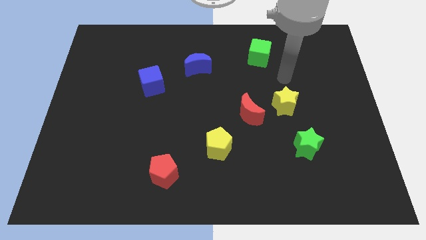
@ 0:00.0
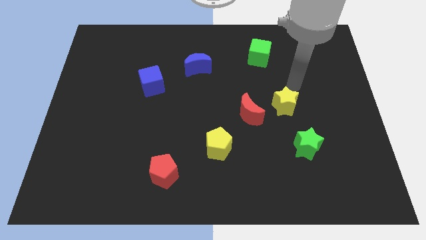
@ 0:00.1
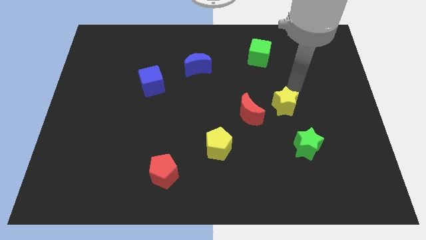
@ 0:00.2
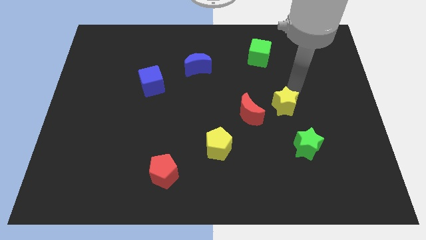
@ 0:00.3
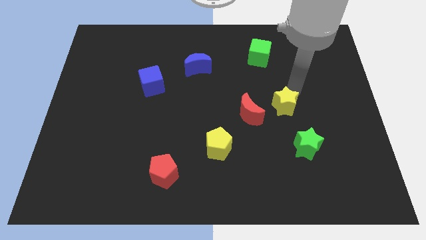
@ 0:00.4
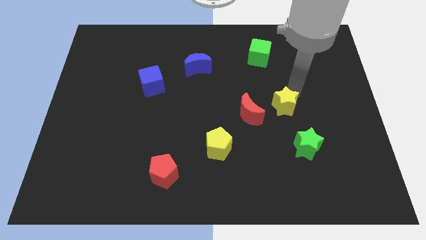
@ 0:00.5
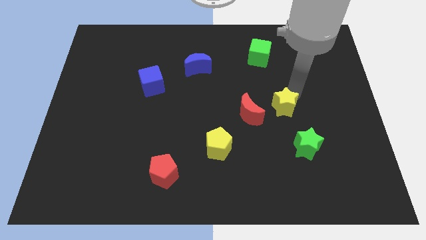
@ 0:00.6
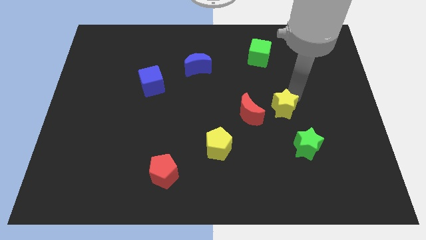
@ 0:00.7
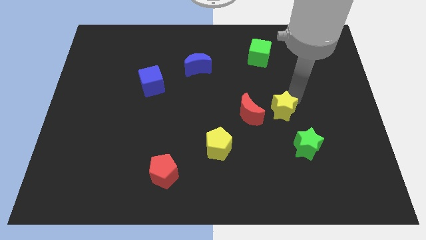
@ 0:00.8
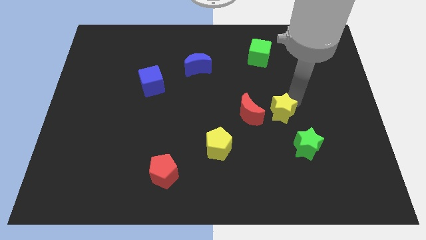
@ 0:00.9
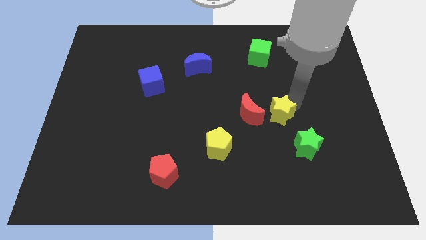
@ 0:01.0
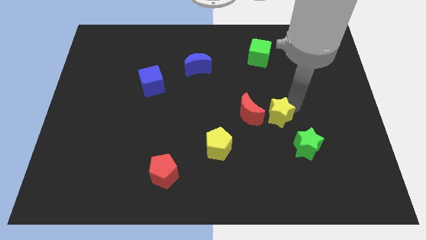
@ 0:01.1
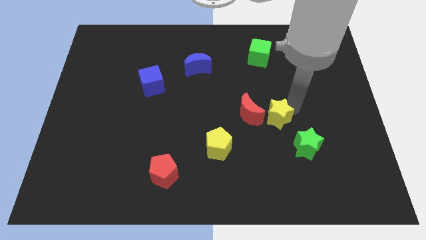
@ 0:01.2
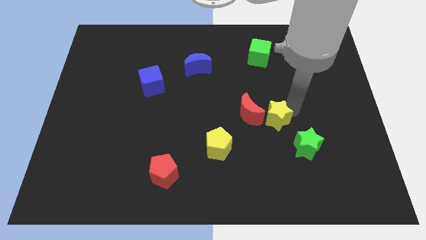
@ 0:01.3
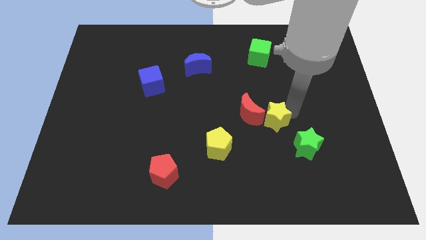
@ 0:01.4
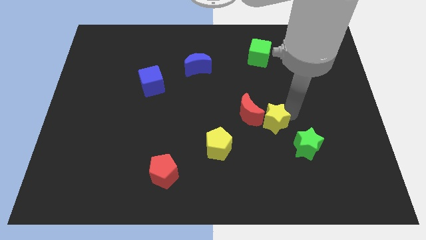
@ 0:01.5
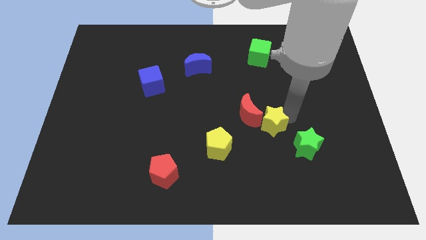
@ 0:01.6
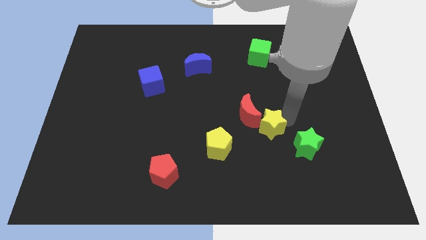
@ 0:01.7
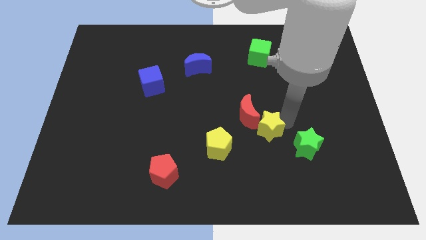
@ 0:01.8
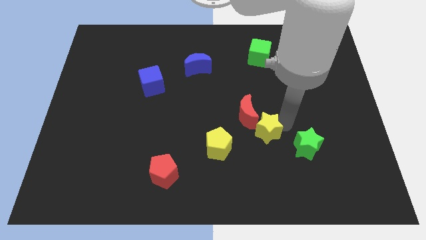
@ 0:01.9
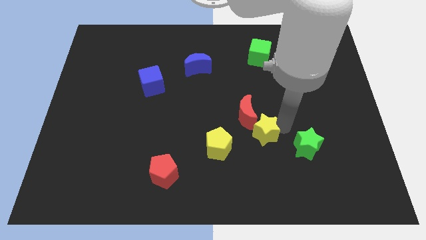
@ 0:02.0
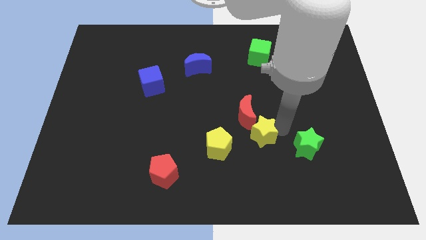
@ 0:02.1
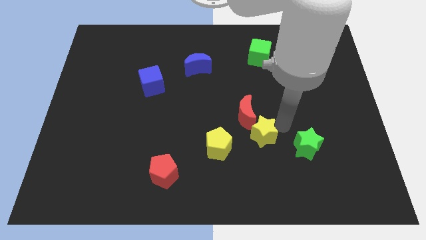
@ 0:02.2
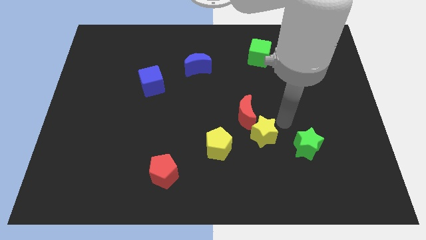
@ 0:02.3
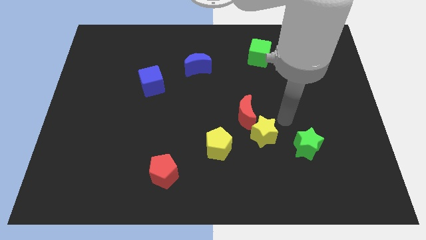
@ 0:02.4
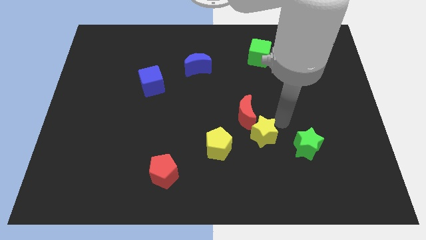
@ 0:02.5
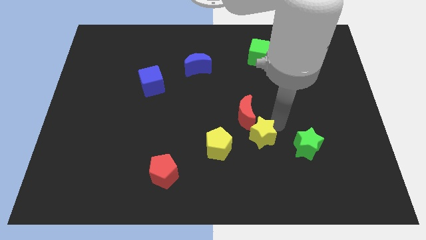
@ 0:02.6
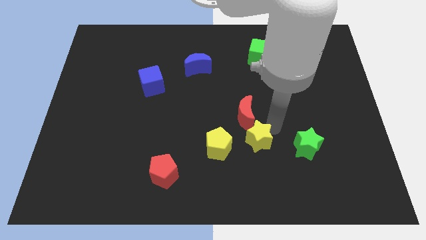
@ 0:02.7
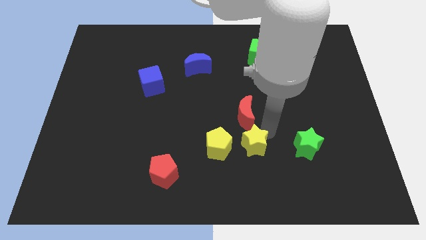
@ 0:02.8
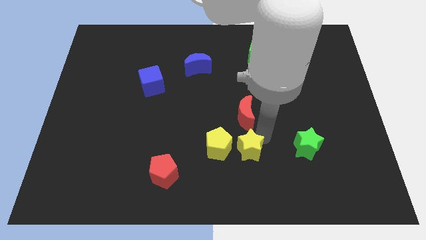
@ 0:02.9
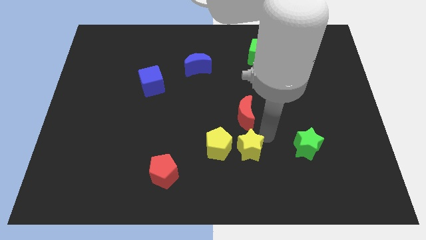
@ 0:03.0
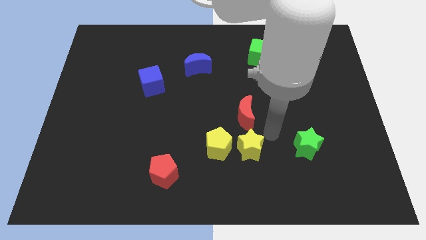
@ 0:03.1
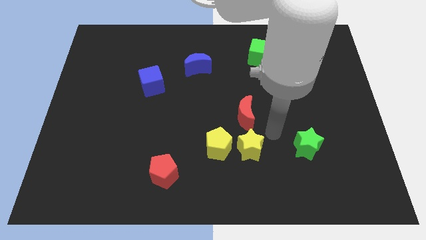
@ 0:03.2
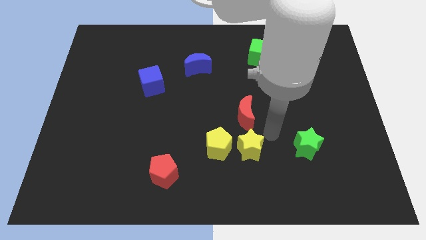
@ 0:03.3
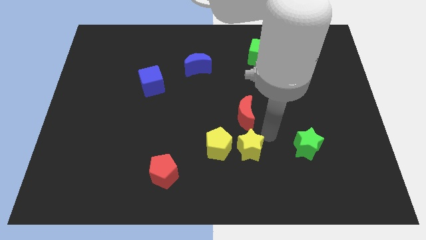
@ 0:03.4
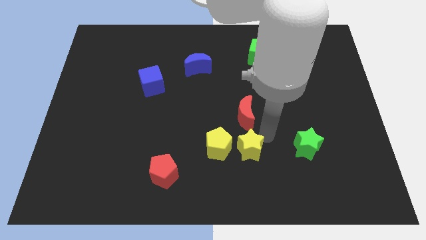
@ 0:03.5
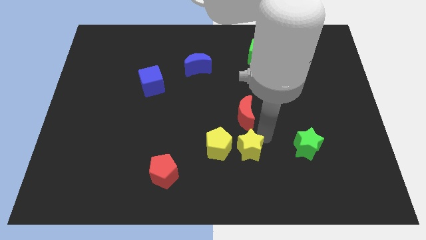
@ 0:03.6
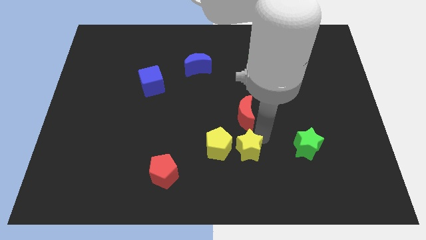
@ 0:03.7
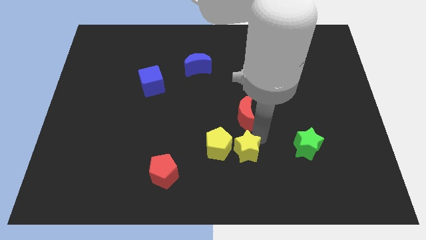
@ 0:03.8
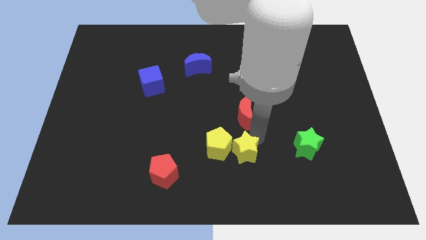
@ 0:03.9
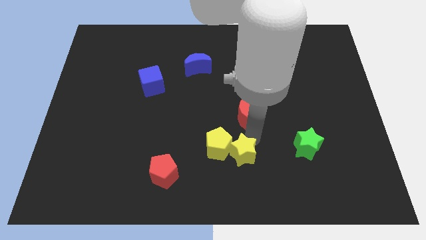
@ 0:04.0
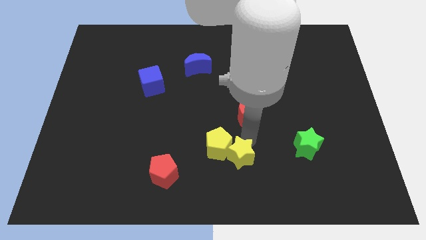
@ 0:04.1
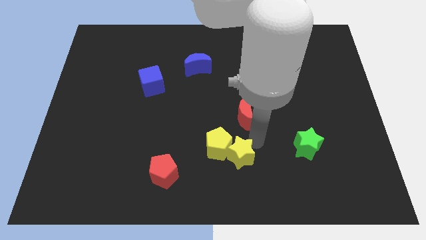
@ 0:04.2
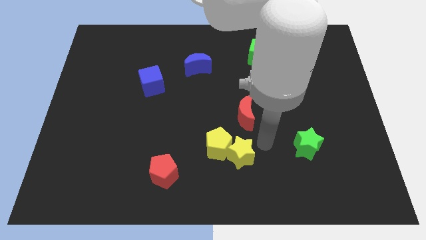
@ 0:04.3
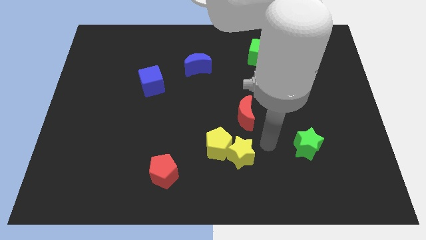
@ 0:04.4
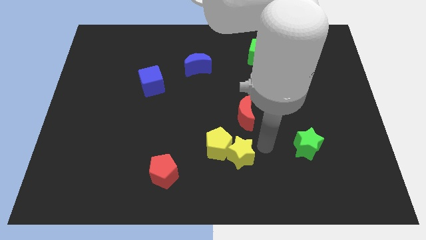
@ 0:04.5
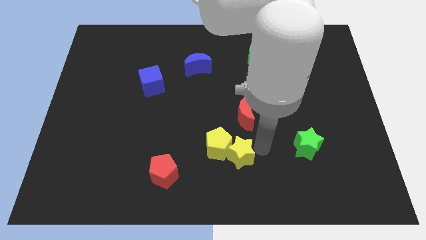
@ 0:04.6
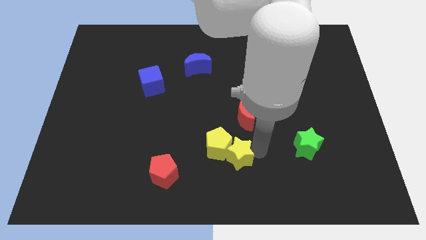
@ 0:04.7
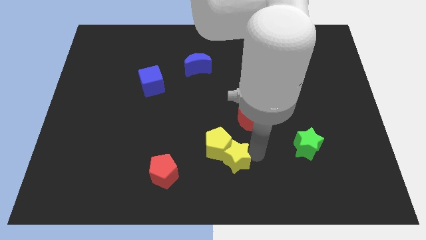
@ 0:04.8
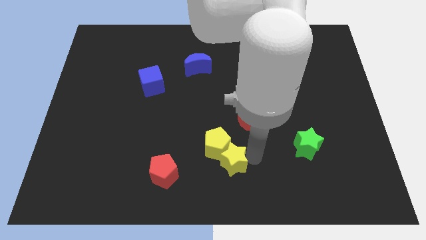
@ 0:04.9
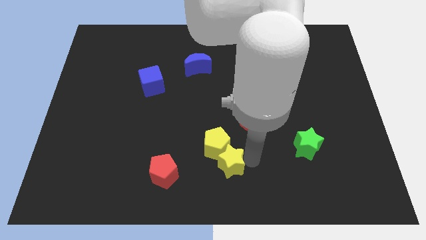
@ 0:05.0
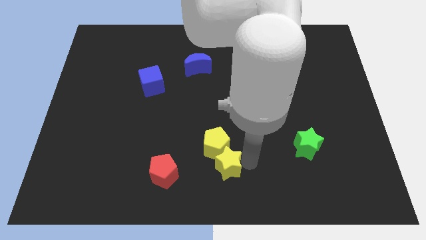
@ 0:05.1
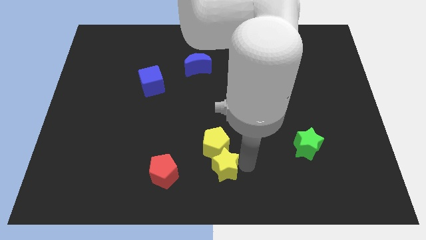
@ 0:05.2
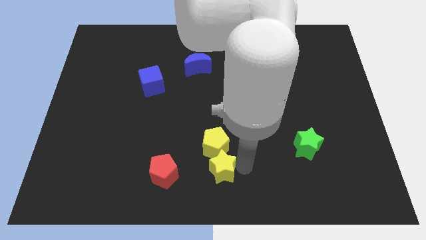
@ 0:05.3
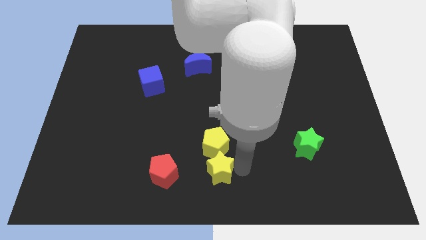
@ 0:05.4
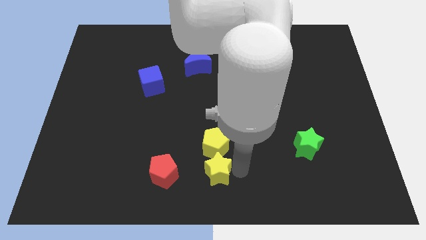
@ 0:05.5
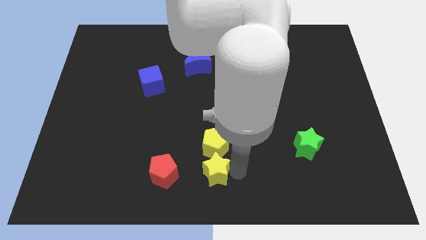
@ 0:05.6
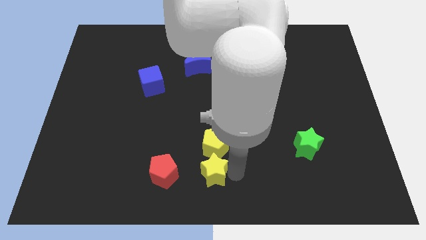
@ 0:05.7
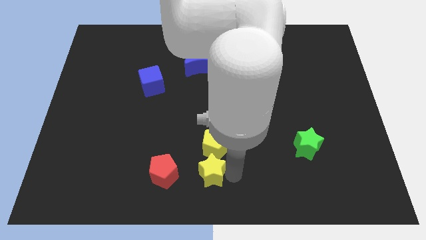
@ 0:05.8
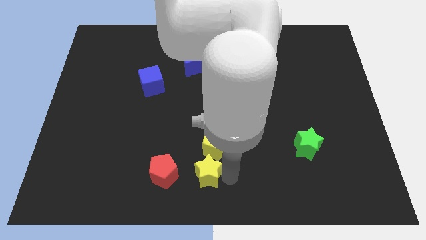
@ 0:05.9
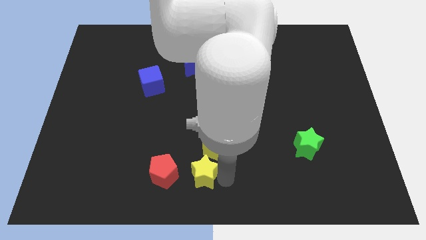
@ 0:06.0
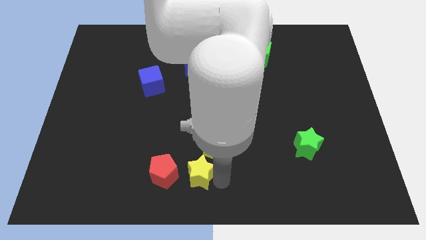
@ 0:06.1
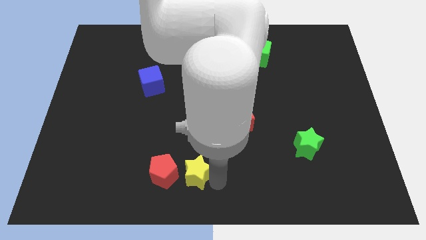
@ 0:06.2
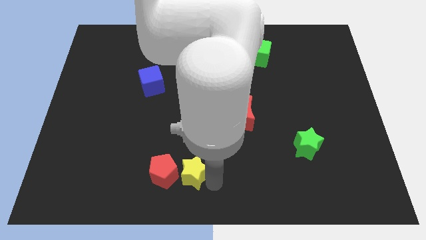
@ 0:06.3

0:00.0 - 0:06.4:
push the yellow star next to the red pentagon

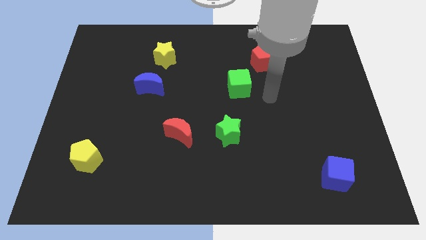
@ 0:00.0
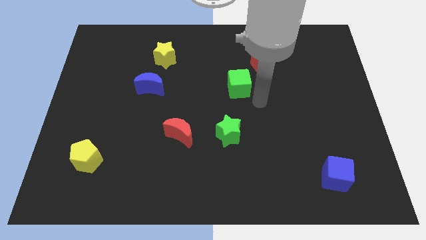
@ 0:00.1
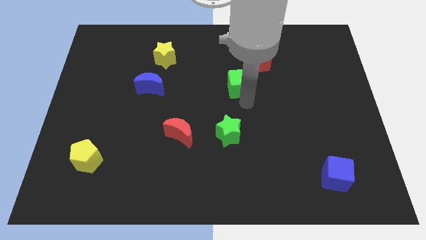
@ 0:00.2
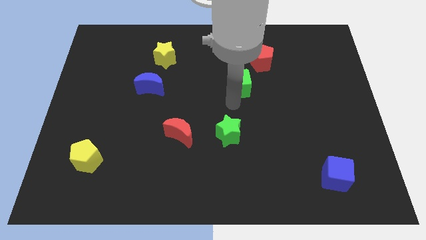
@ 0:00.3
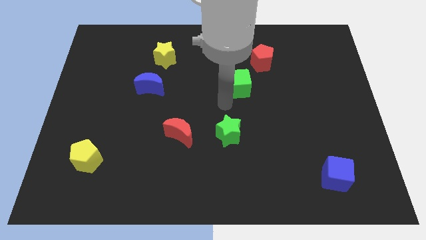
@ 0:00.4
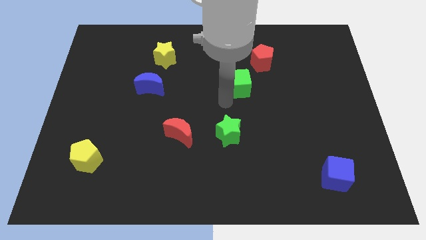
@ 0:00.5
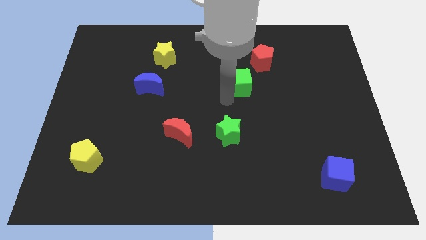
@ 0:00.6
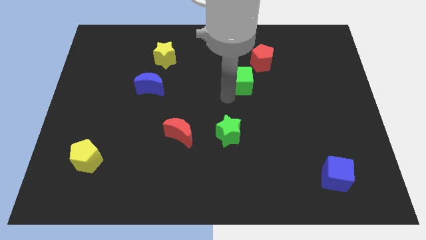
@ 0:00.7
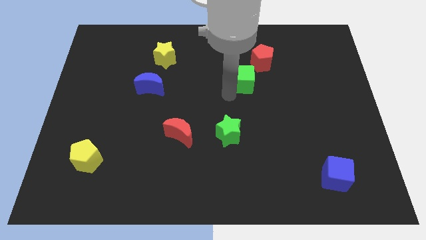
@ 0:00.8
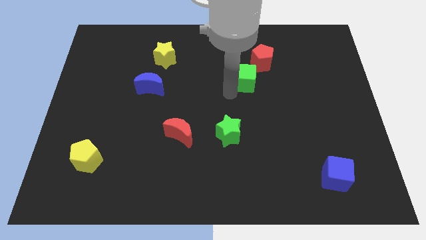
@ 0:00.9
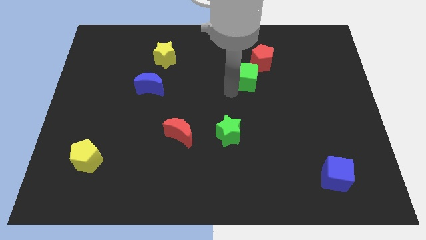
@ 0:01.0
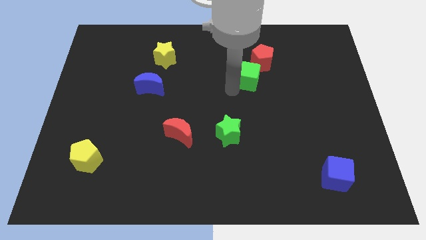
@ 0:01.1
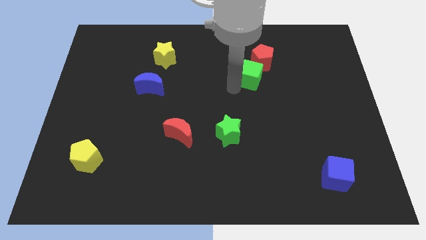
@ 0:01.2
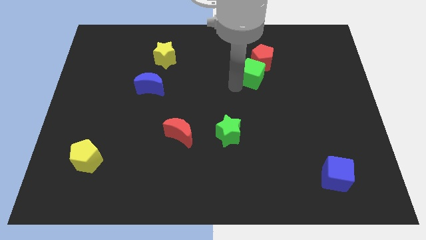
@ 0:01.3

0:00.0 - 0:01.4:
slide the green cube next to the red pentagon
